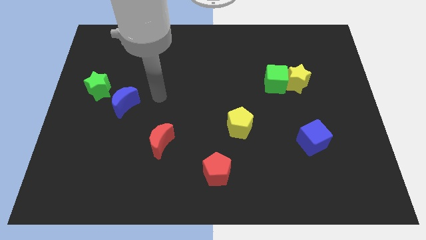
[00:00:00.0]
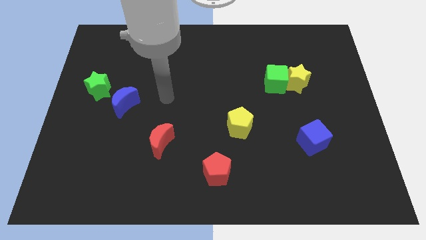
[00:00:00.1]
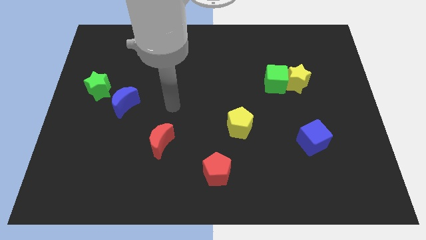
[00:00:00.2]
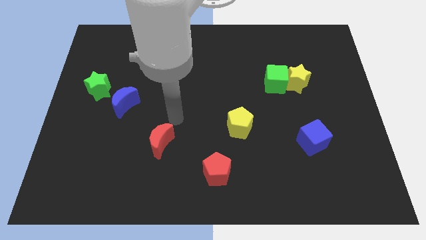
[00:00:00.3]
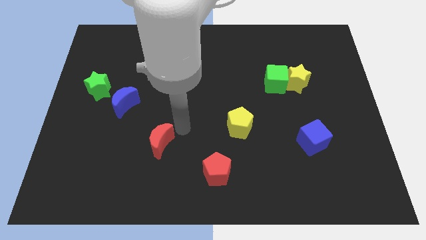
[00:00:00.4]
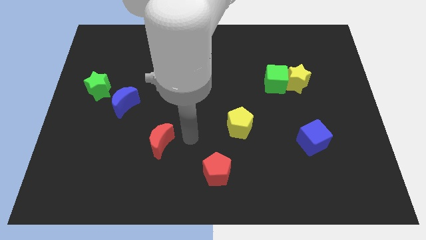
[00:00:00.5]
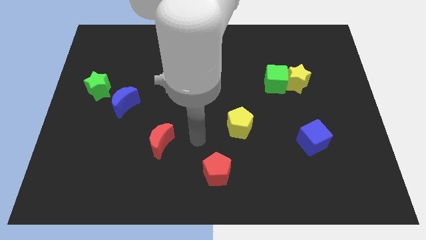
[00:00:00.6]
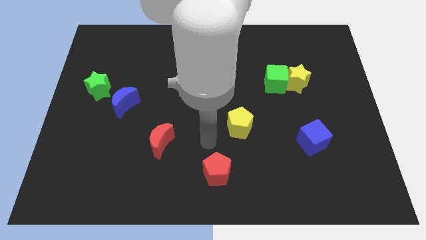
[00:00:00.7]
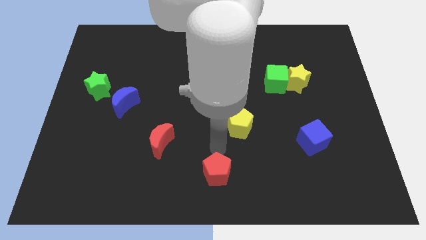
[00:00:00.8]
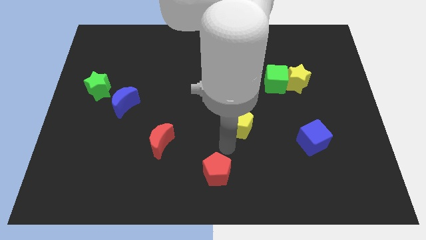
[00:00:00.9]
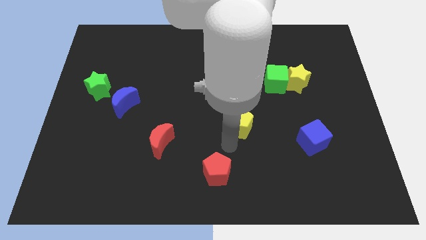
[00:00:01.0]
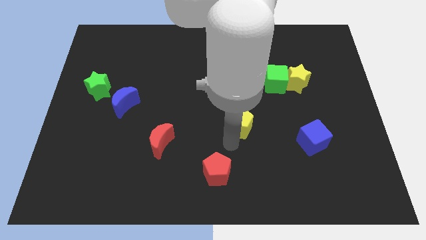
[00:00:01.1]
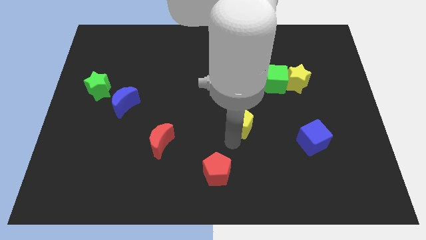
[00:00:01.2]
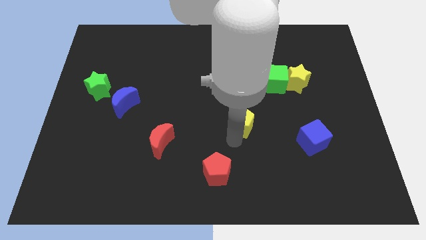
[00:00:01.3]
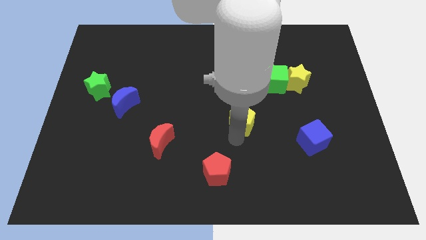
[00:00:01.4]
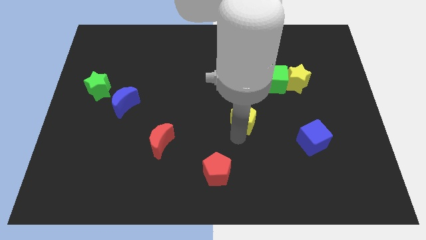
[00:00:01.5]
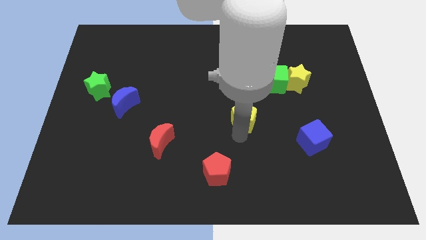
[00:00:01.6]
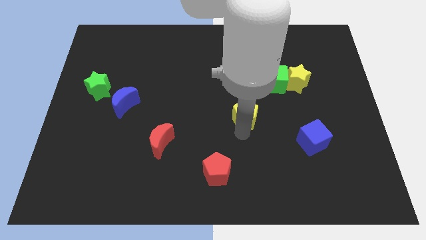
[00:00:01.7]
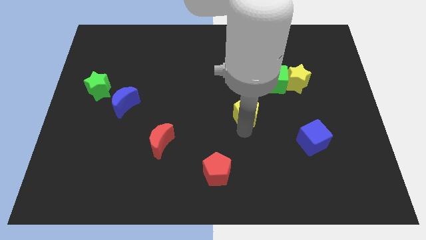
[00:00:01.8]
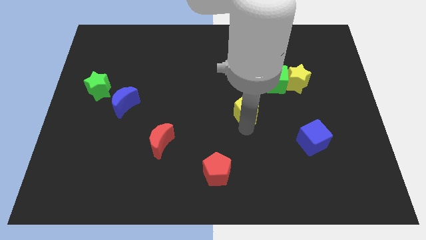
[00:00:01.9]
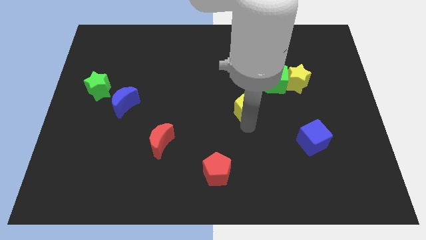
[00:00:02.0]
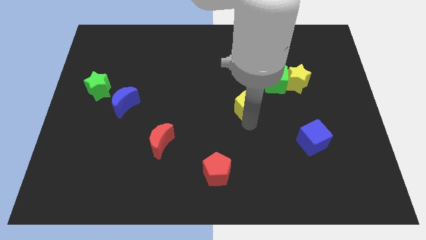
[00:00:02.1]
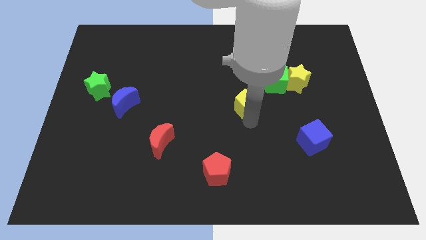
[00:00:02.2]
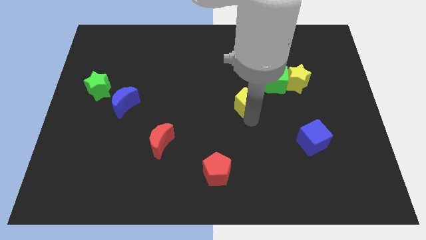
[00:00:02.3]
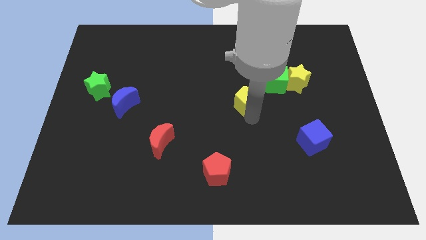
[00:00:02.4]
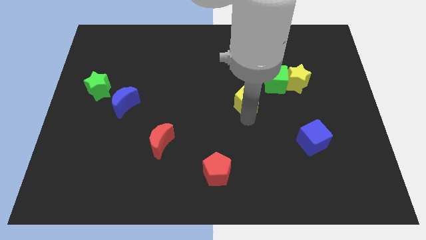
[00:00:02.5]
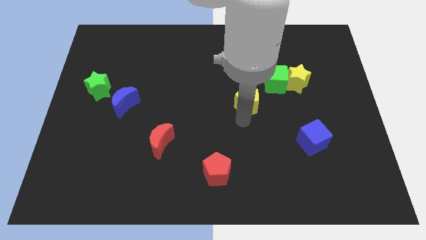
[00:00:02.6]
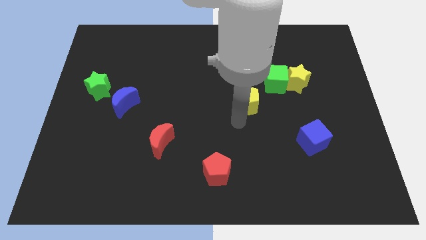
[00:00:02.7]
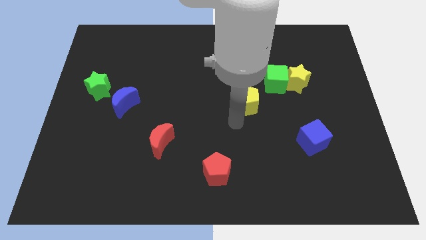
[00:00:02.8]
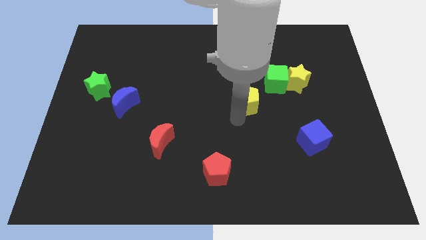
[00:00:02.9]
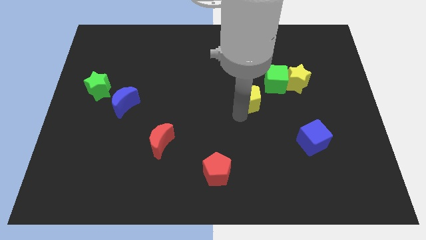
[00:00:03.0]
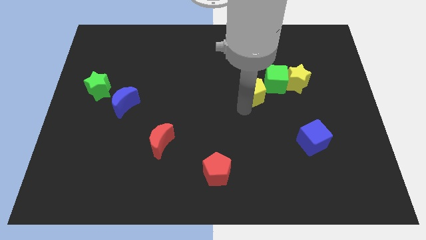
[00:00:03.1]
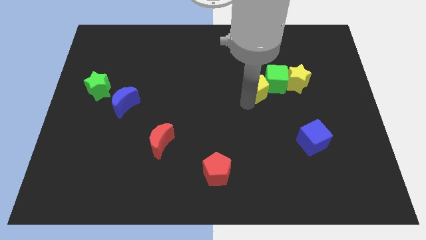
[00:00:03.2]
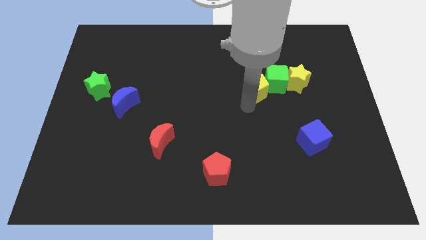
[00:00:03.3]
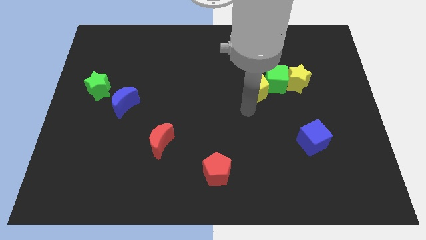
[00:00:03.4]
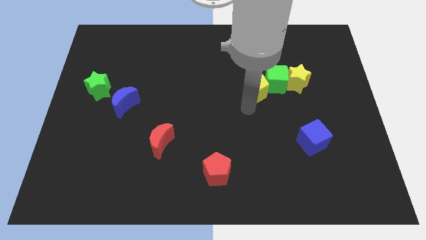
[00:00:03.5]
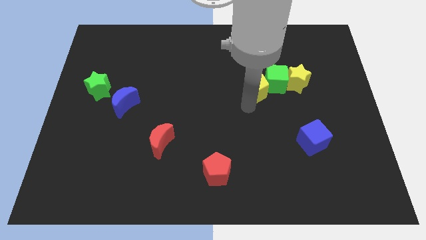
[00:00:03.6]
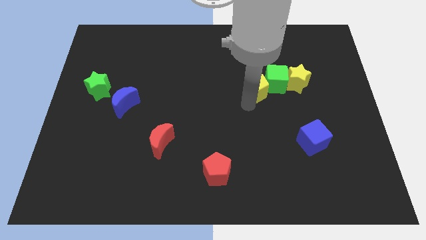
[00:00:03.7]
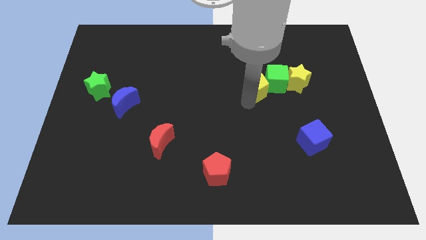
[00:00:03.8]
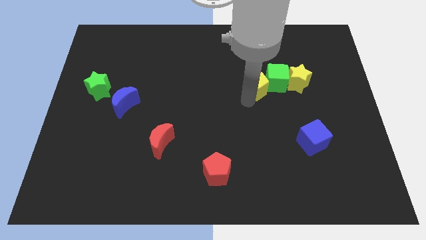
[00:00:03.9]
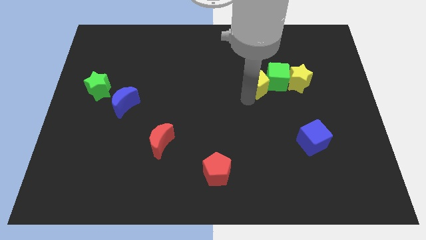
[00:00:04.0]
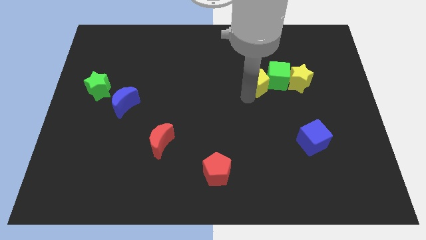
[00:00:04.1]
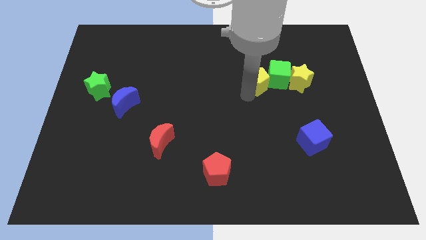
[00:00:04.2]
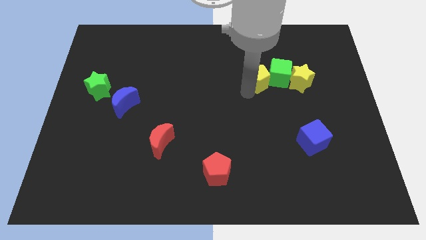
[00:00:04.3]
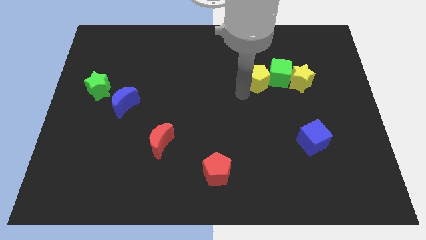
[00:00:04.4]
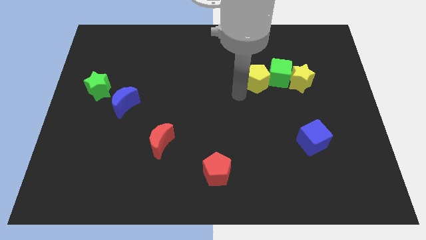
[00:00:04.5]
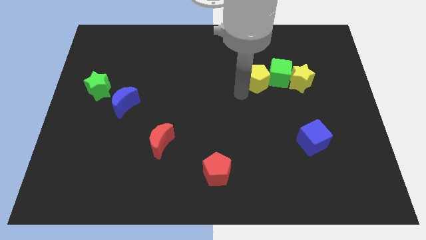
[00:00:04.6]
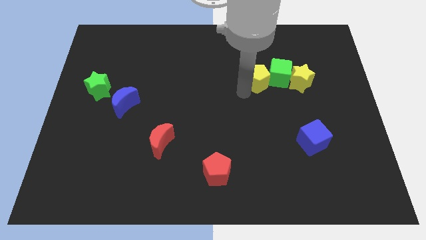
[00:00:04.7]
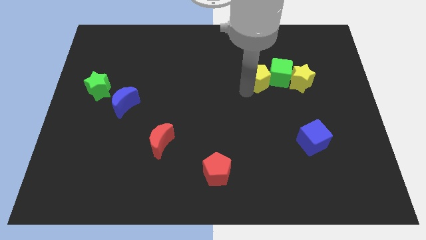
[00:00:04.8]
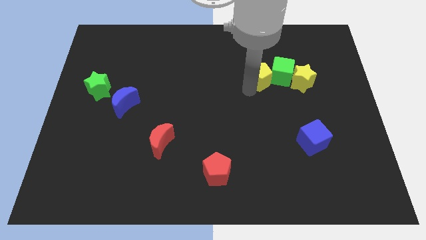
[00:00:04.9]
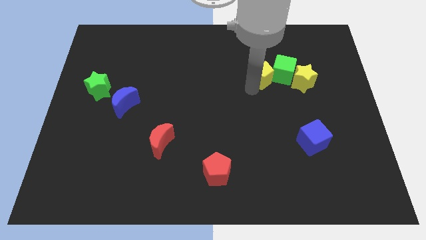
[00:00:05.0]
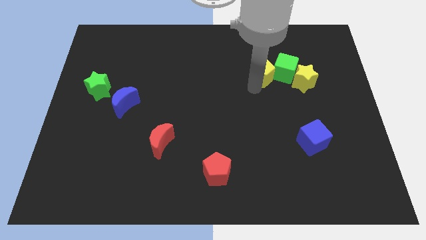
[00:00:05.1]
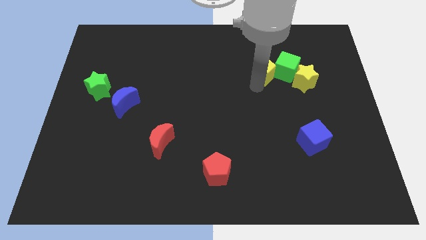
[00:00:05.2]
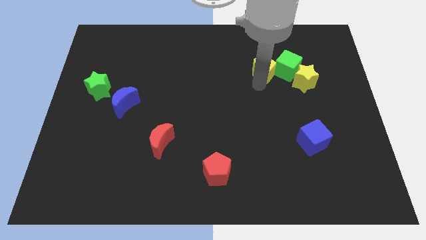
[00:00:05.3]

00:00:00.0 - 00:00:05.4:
push the yellow pentagon to the top left of the yellow star

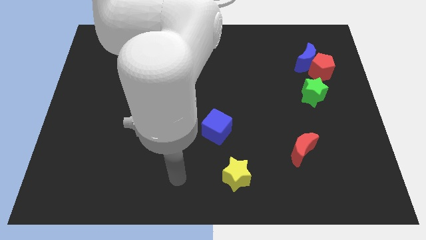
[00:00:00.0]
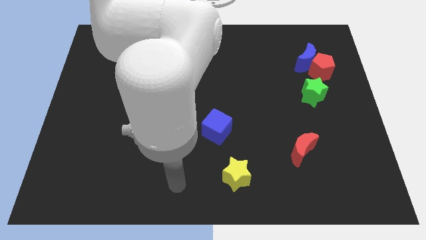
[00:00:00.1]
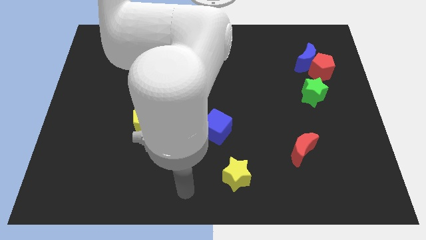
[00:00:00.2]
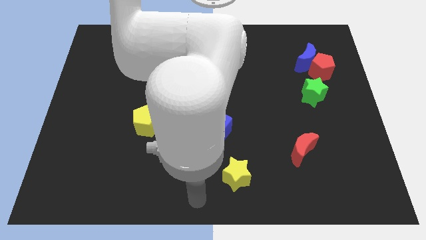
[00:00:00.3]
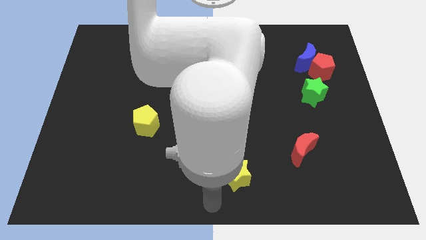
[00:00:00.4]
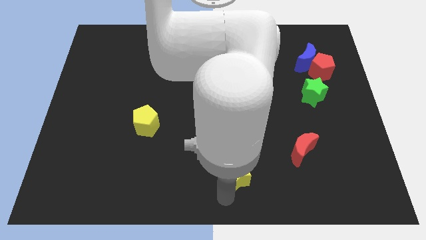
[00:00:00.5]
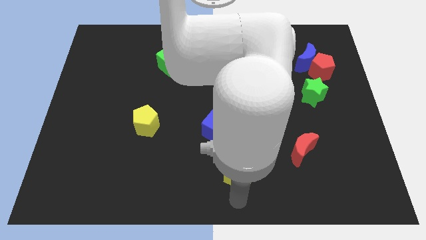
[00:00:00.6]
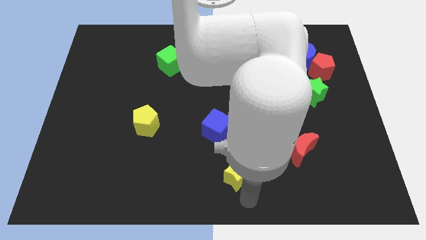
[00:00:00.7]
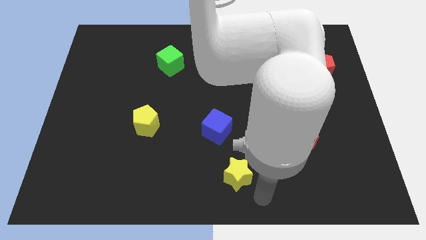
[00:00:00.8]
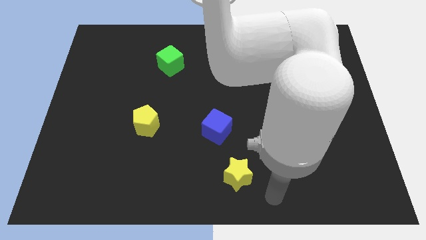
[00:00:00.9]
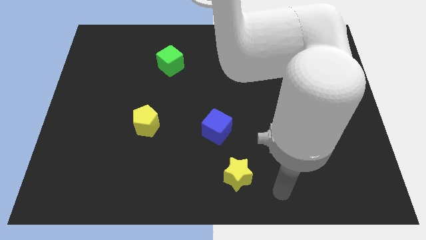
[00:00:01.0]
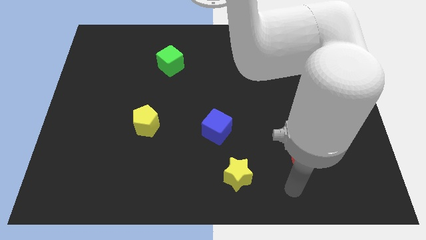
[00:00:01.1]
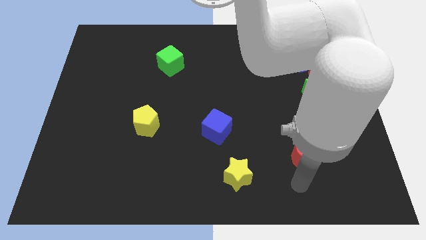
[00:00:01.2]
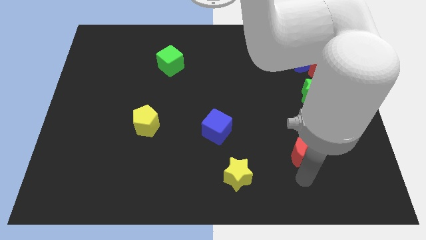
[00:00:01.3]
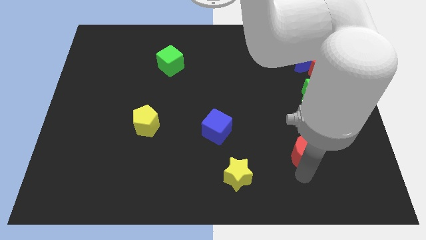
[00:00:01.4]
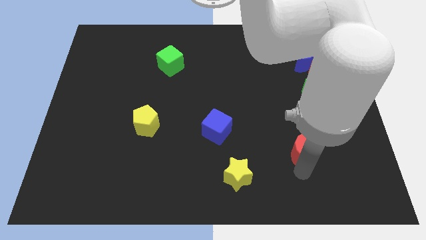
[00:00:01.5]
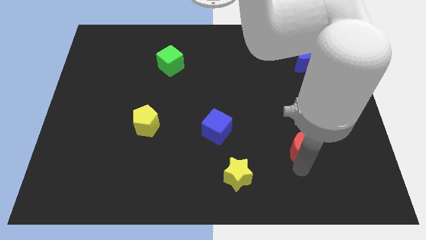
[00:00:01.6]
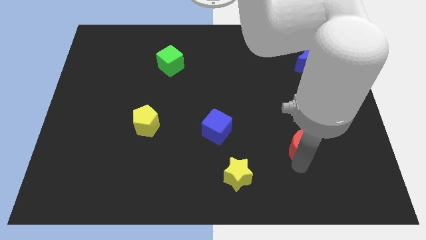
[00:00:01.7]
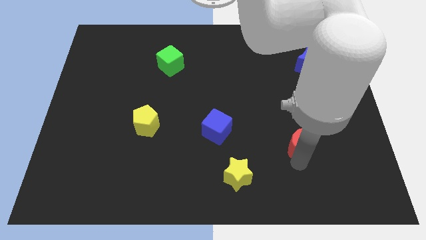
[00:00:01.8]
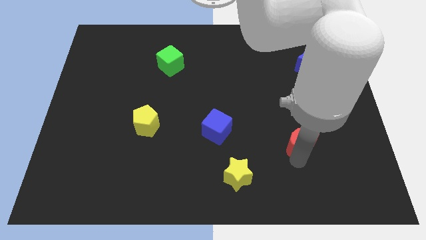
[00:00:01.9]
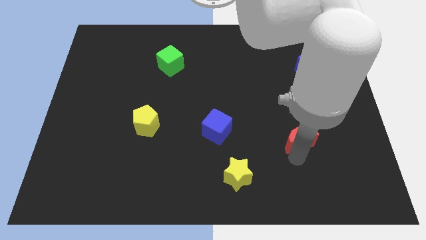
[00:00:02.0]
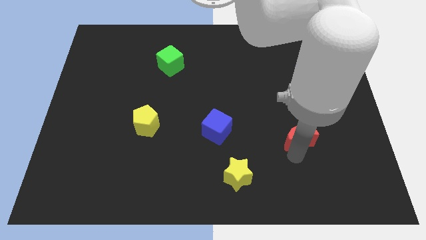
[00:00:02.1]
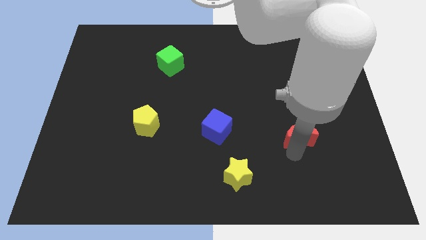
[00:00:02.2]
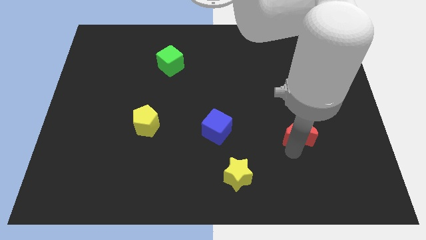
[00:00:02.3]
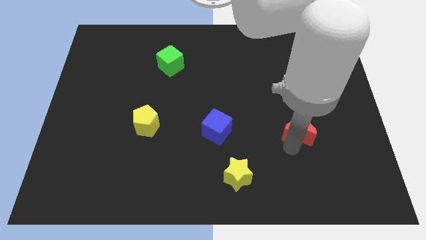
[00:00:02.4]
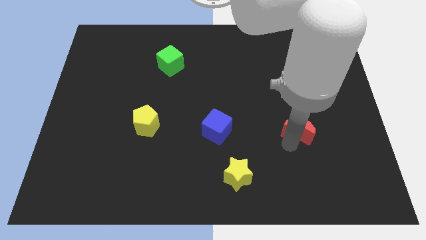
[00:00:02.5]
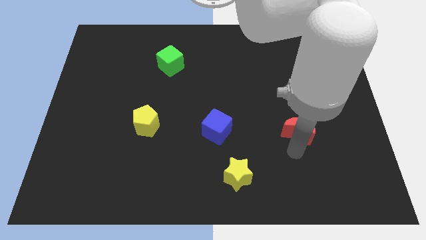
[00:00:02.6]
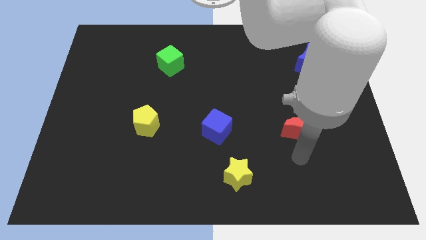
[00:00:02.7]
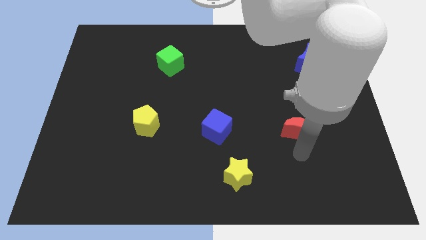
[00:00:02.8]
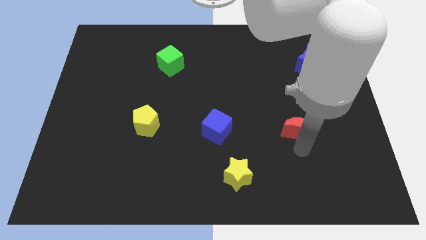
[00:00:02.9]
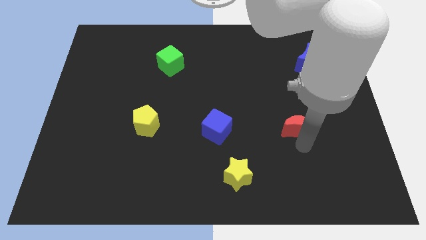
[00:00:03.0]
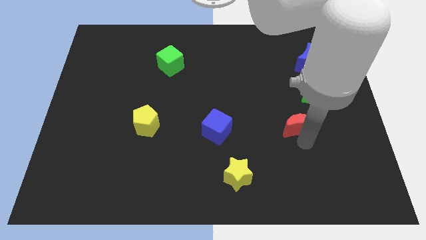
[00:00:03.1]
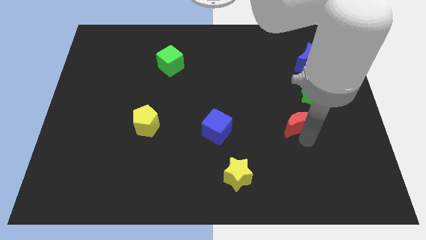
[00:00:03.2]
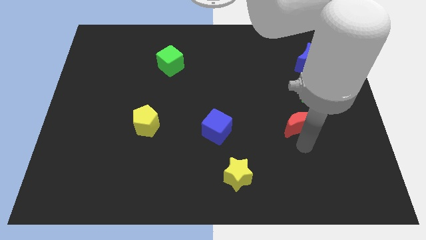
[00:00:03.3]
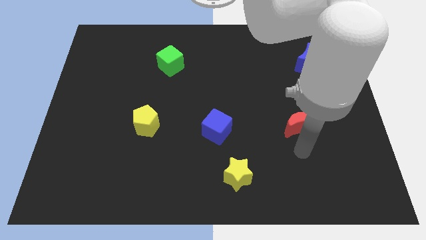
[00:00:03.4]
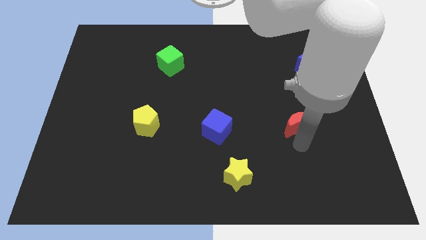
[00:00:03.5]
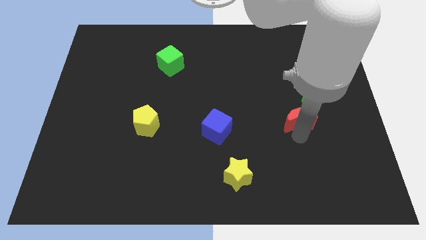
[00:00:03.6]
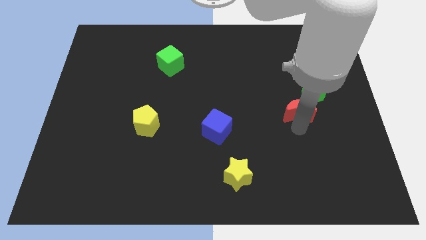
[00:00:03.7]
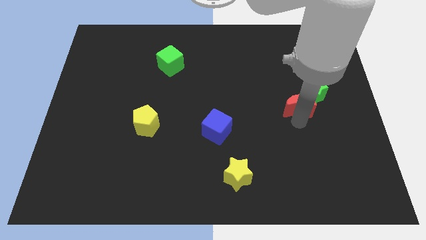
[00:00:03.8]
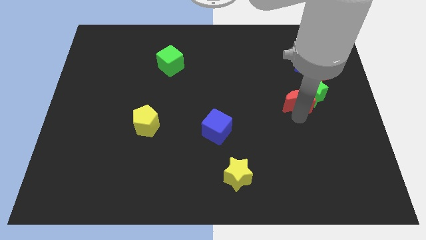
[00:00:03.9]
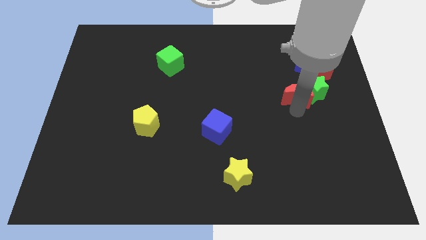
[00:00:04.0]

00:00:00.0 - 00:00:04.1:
put the red moon to the bottom left of the red pentagon
